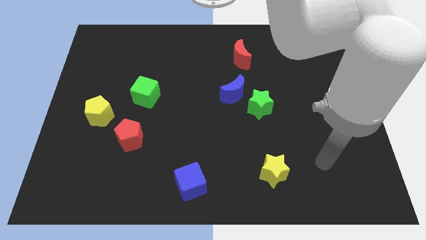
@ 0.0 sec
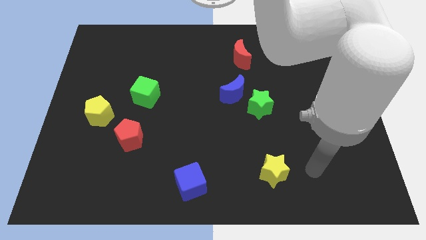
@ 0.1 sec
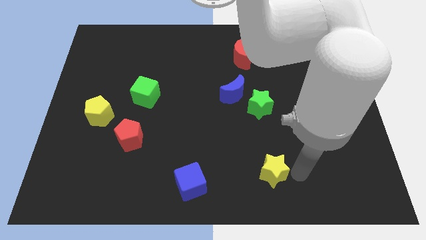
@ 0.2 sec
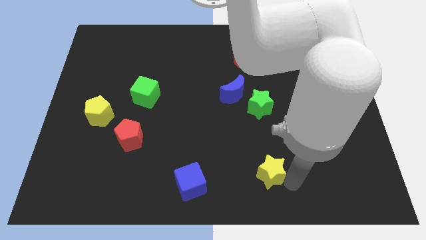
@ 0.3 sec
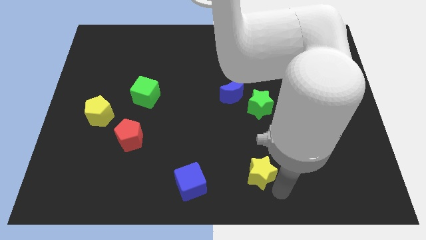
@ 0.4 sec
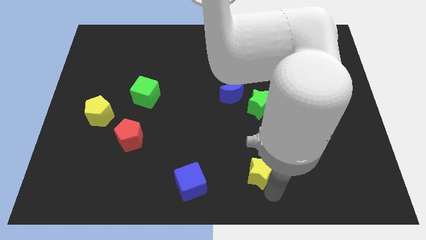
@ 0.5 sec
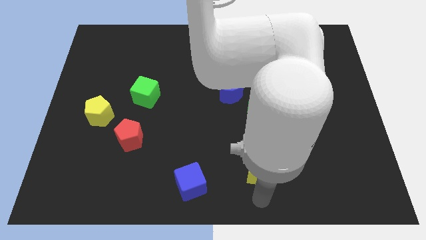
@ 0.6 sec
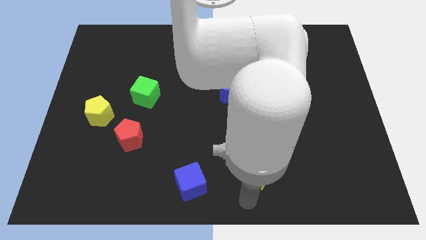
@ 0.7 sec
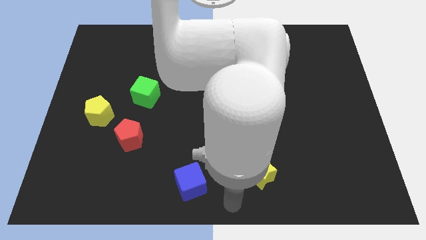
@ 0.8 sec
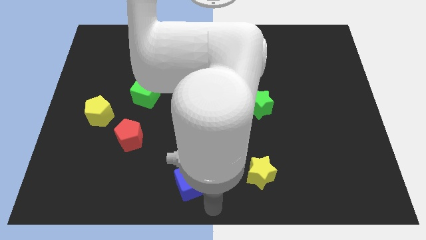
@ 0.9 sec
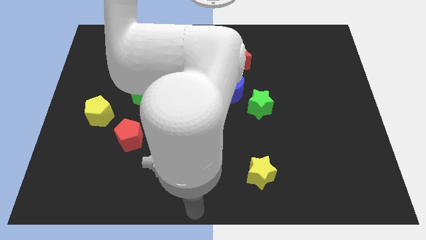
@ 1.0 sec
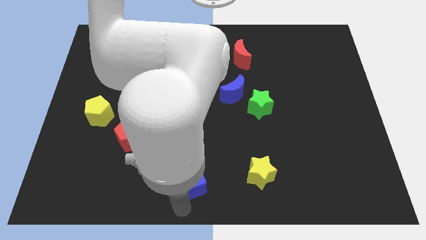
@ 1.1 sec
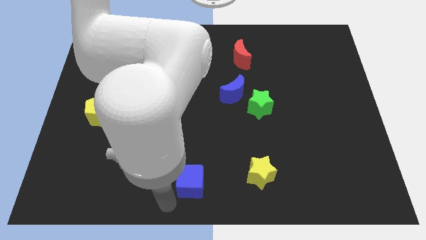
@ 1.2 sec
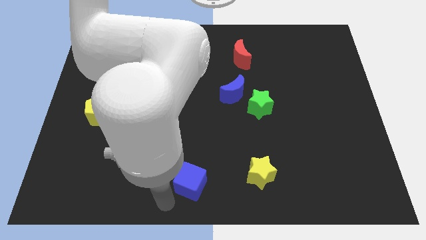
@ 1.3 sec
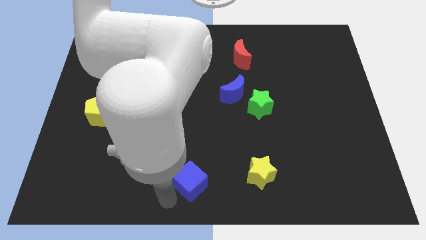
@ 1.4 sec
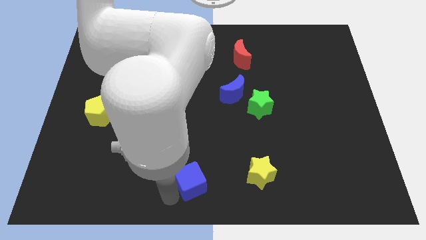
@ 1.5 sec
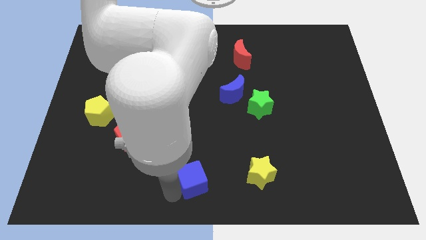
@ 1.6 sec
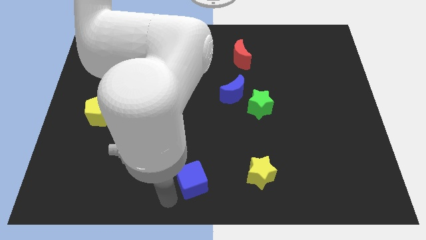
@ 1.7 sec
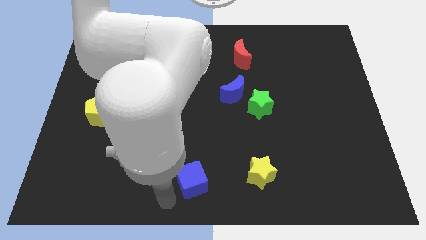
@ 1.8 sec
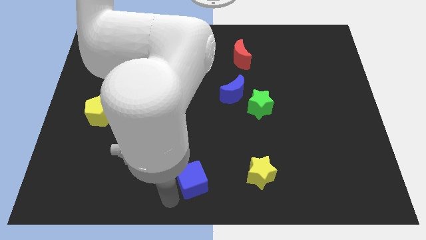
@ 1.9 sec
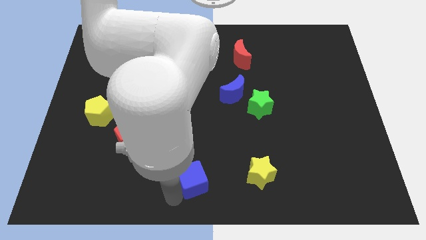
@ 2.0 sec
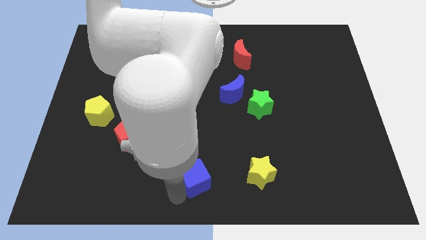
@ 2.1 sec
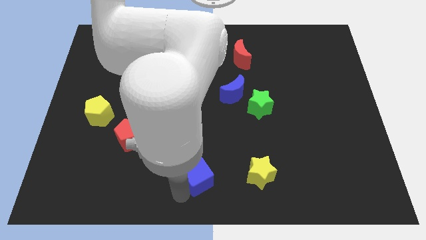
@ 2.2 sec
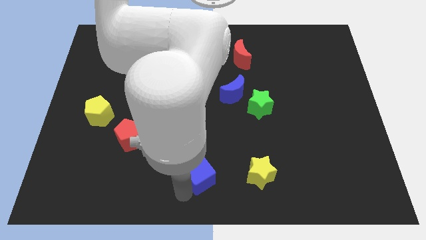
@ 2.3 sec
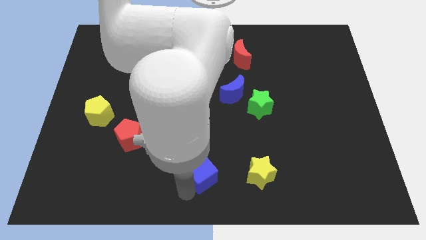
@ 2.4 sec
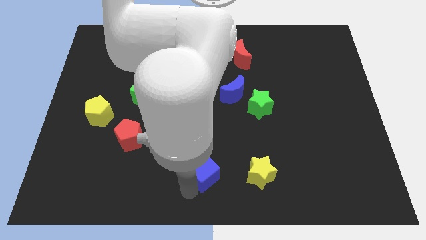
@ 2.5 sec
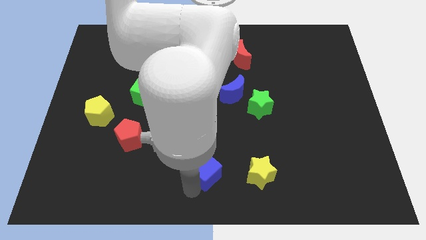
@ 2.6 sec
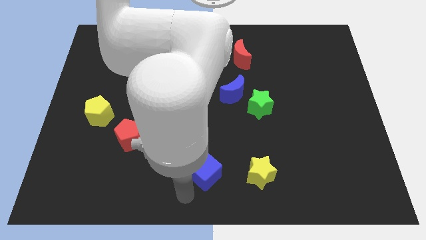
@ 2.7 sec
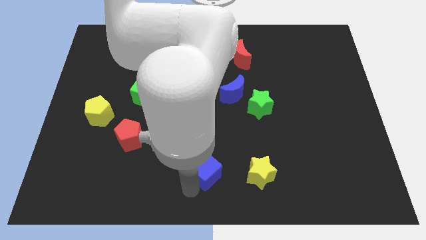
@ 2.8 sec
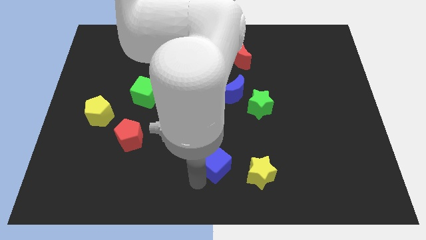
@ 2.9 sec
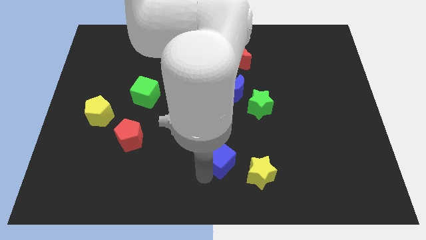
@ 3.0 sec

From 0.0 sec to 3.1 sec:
slide the blue cube somewhat diagonally up and right

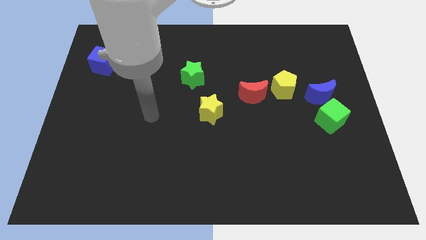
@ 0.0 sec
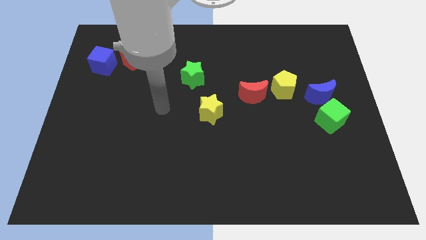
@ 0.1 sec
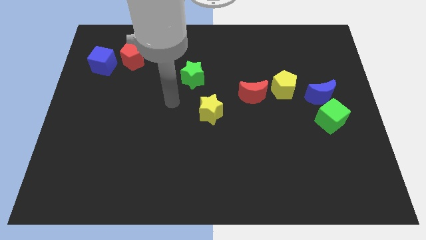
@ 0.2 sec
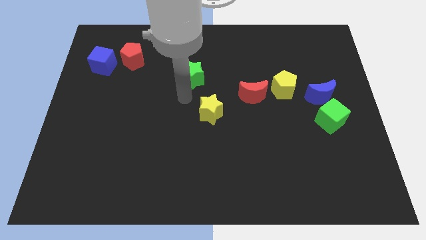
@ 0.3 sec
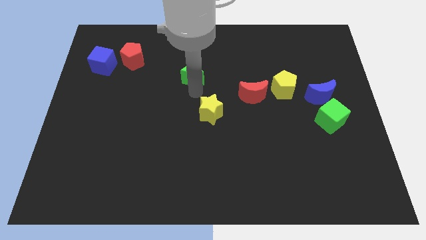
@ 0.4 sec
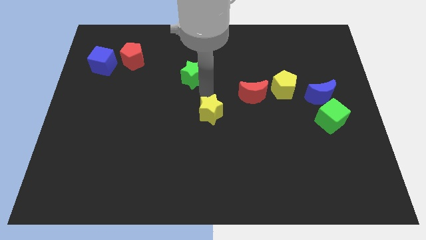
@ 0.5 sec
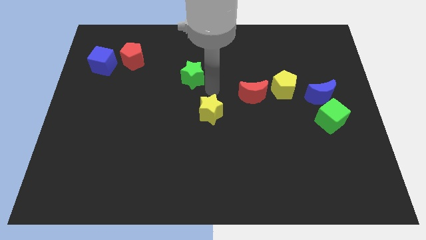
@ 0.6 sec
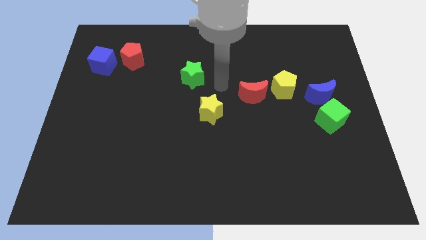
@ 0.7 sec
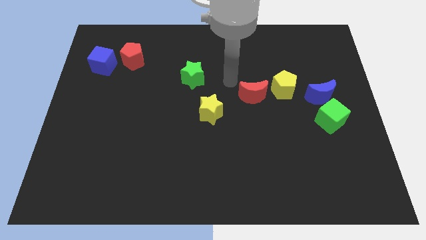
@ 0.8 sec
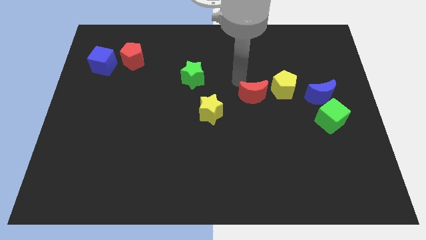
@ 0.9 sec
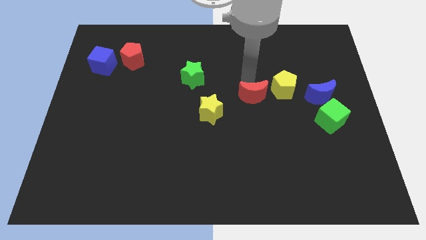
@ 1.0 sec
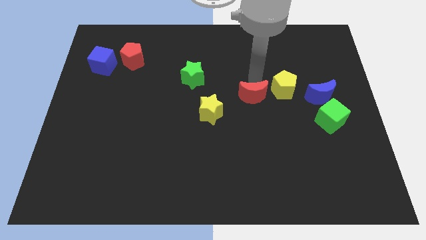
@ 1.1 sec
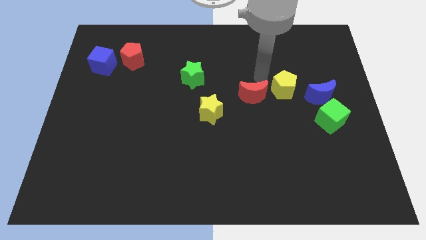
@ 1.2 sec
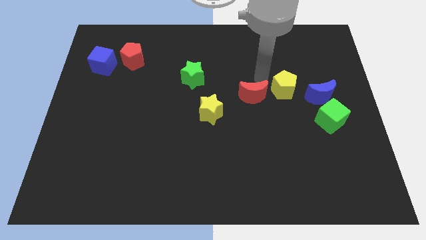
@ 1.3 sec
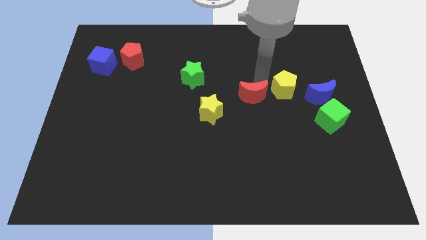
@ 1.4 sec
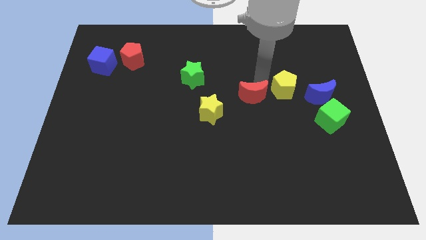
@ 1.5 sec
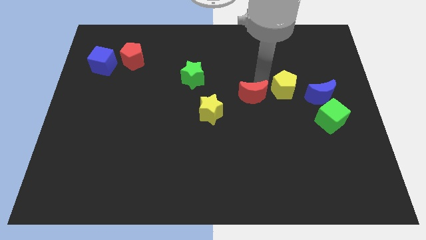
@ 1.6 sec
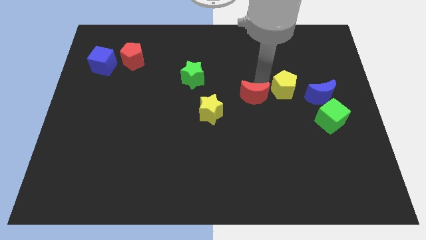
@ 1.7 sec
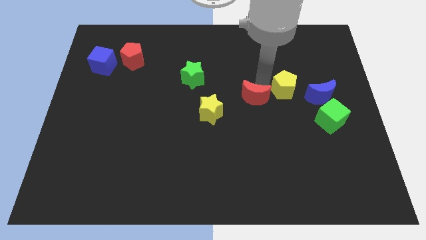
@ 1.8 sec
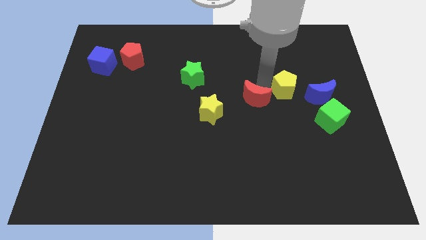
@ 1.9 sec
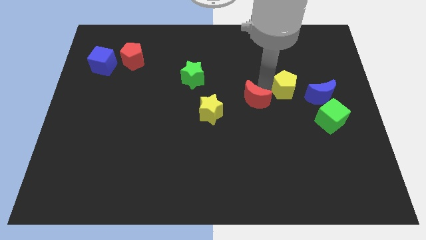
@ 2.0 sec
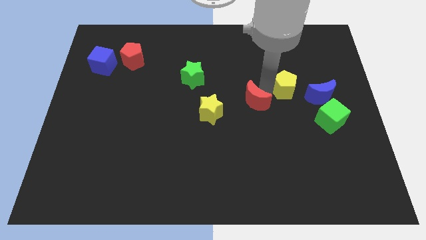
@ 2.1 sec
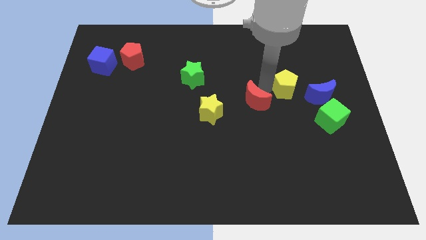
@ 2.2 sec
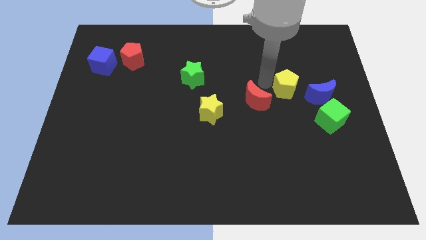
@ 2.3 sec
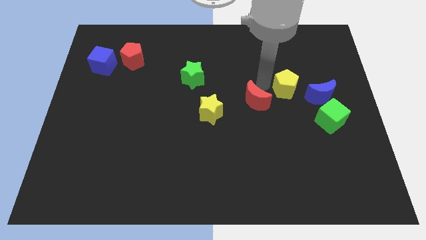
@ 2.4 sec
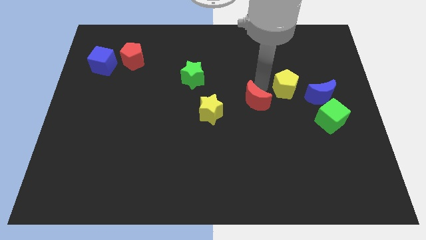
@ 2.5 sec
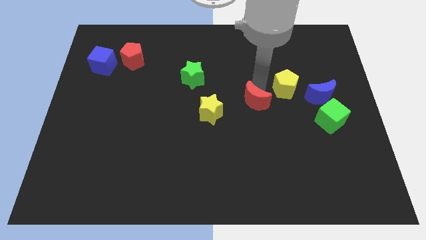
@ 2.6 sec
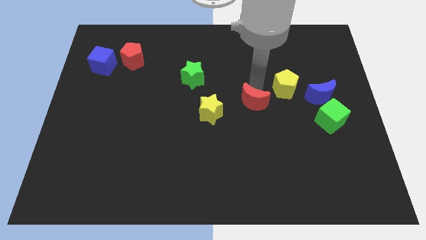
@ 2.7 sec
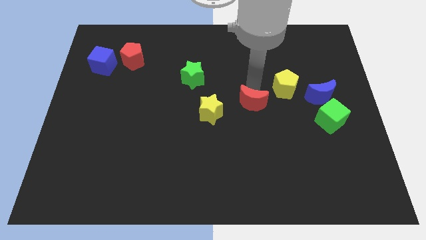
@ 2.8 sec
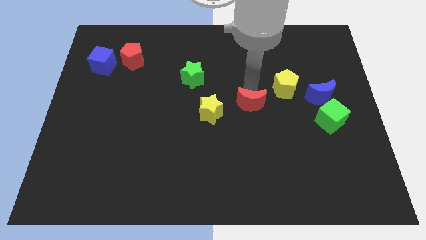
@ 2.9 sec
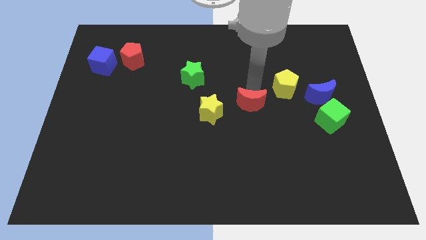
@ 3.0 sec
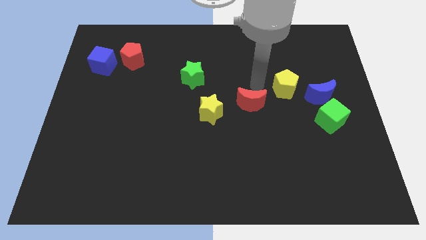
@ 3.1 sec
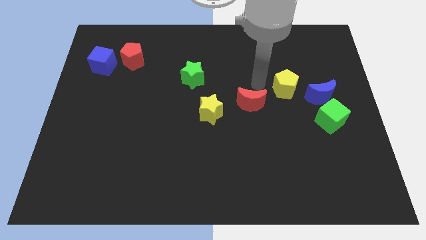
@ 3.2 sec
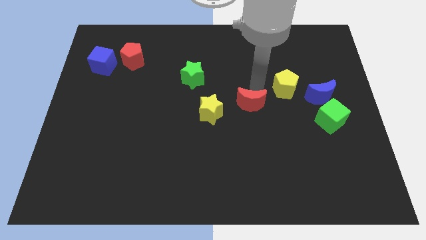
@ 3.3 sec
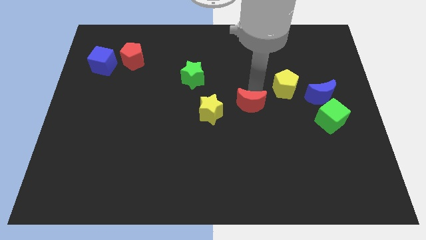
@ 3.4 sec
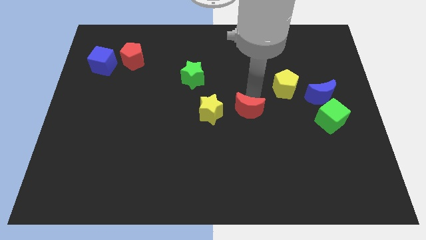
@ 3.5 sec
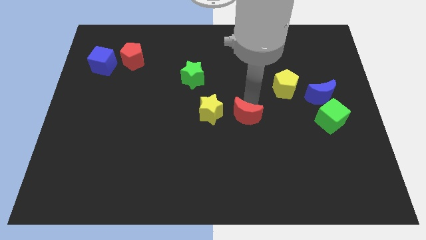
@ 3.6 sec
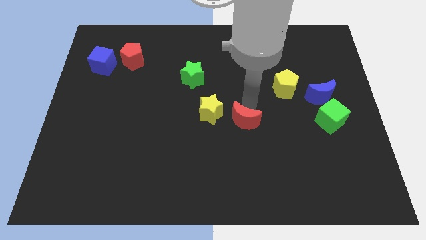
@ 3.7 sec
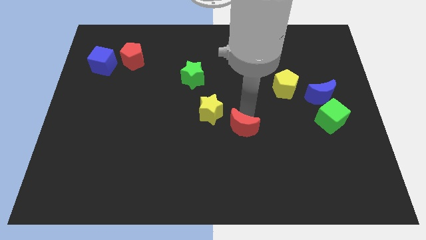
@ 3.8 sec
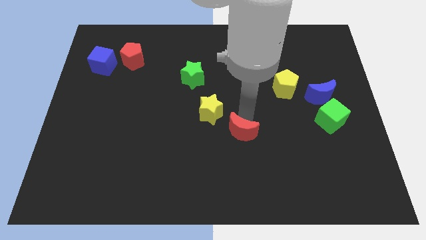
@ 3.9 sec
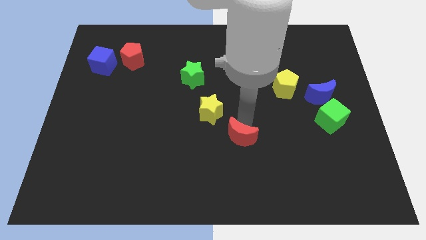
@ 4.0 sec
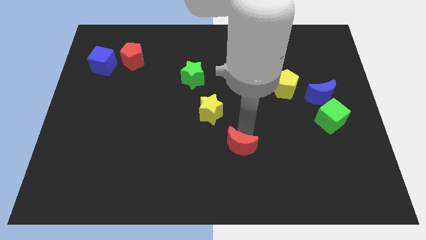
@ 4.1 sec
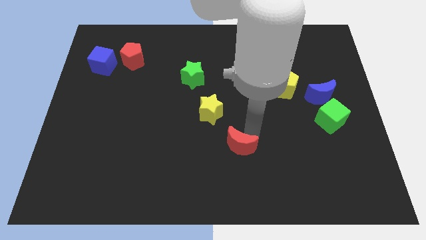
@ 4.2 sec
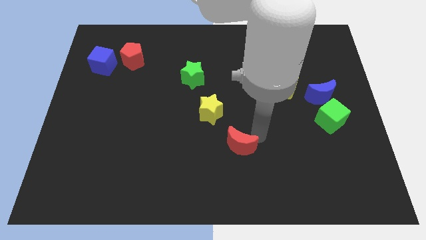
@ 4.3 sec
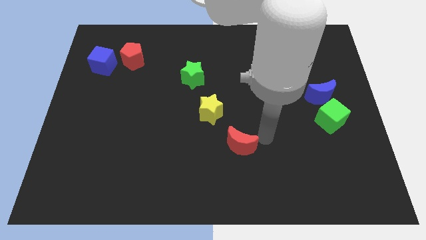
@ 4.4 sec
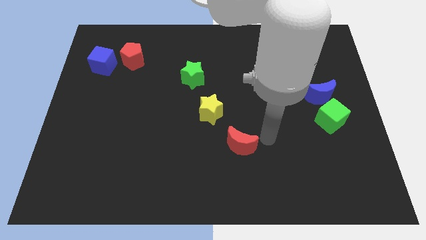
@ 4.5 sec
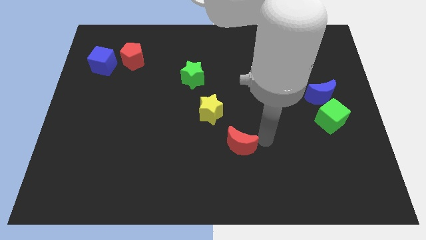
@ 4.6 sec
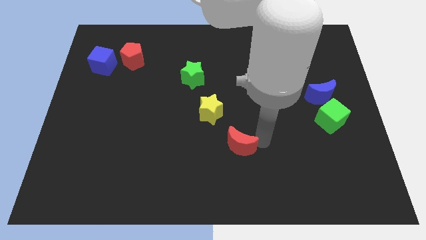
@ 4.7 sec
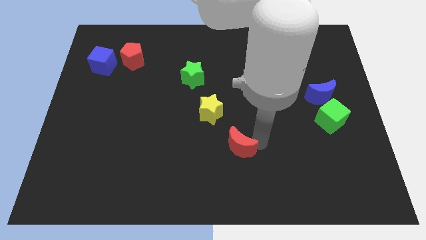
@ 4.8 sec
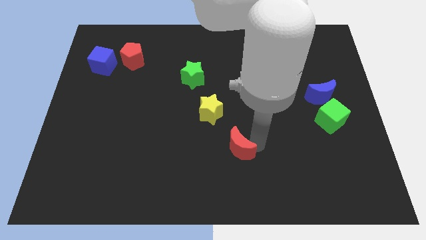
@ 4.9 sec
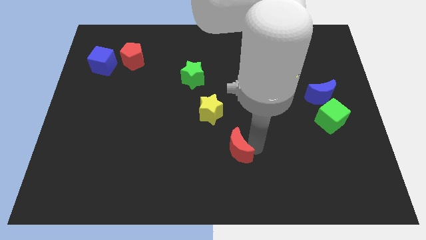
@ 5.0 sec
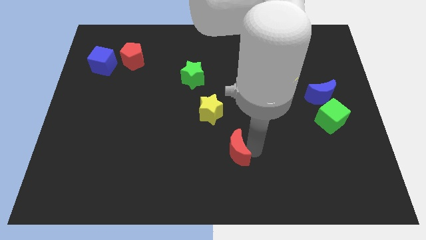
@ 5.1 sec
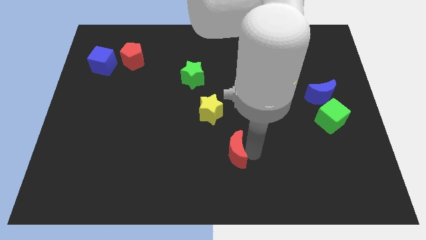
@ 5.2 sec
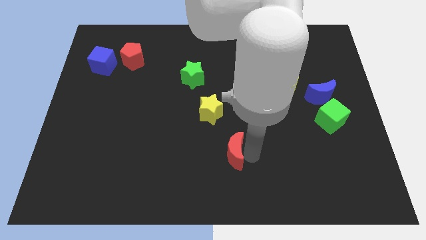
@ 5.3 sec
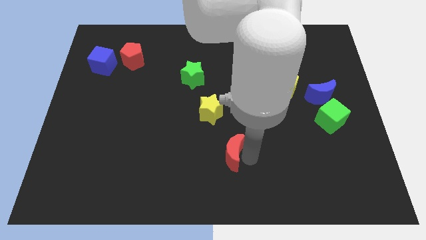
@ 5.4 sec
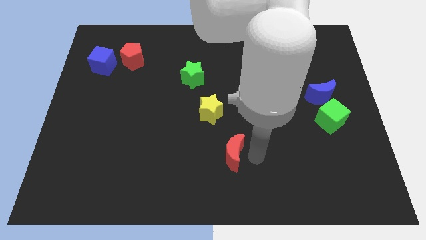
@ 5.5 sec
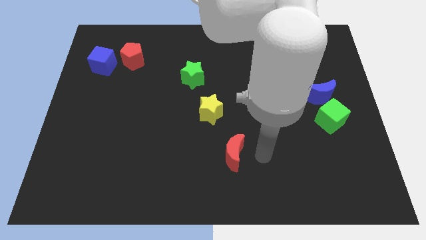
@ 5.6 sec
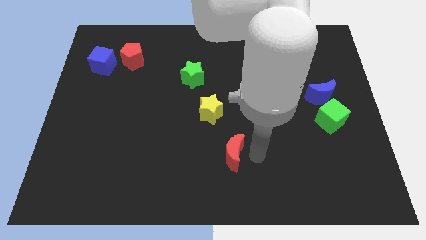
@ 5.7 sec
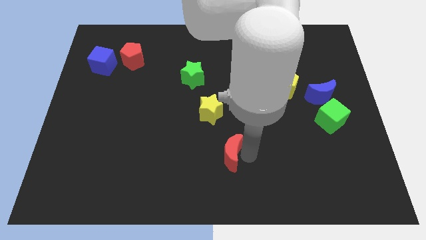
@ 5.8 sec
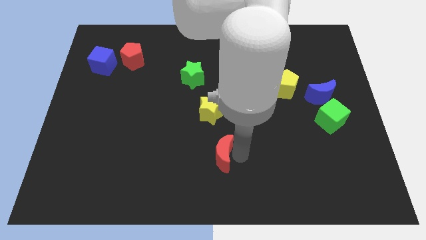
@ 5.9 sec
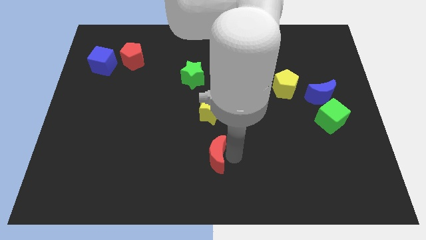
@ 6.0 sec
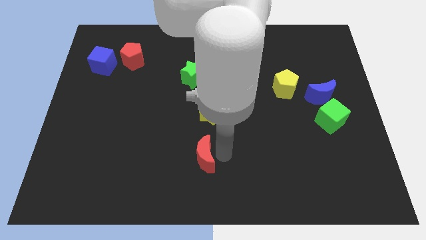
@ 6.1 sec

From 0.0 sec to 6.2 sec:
move the red moon down and then to the left
